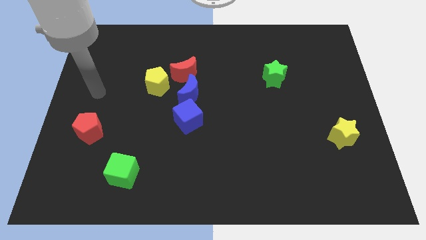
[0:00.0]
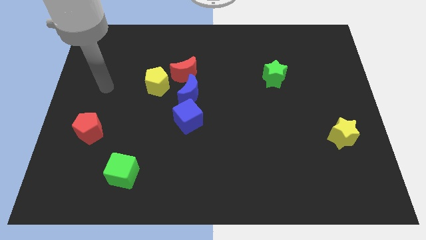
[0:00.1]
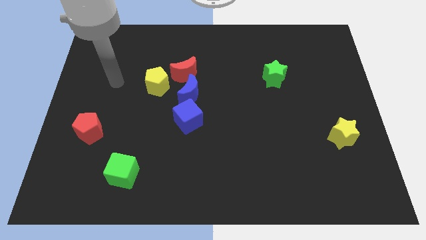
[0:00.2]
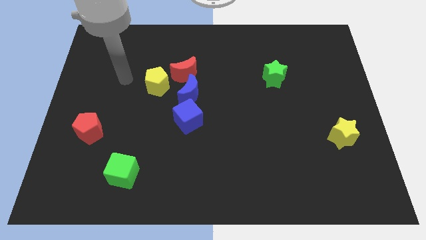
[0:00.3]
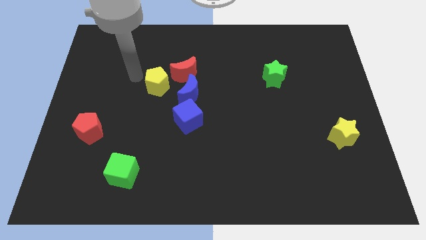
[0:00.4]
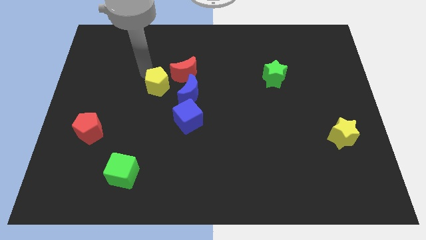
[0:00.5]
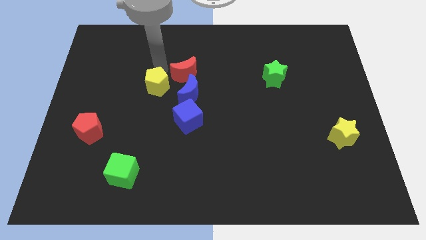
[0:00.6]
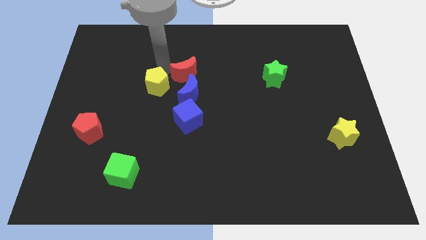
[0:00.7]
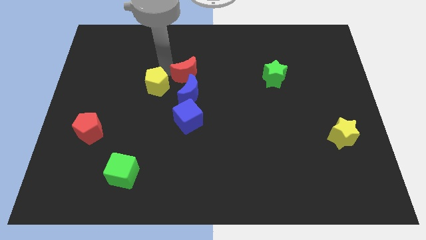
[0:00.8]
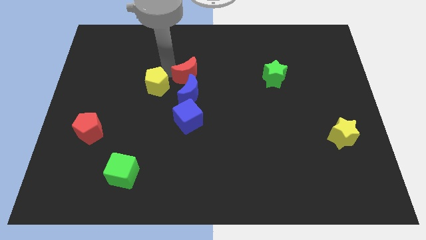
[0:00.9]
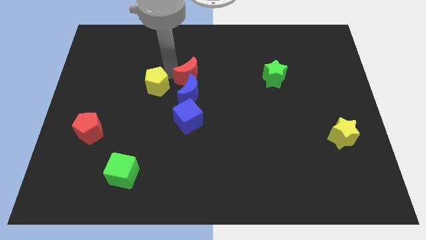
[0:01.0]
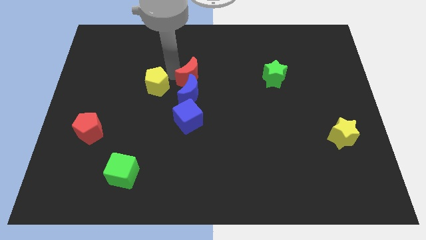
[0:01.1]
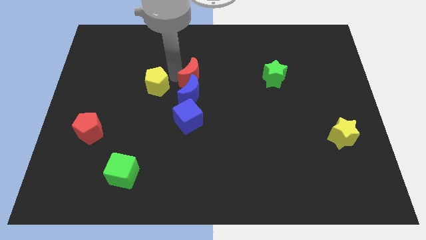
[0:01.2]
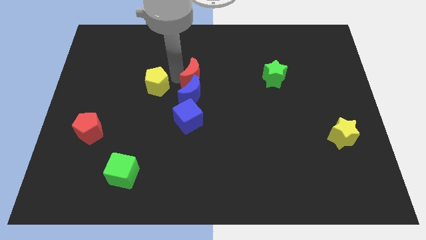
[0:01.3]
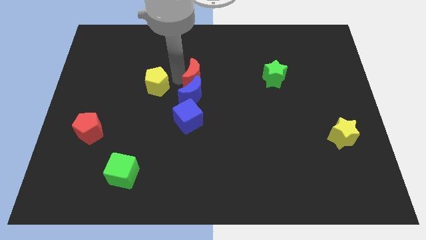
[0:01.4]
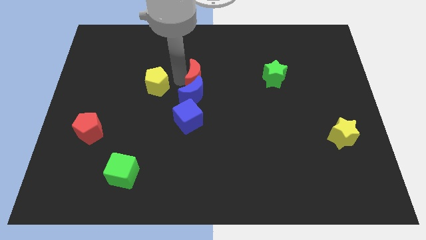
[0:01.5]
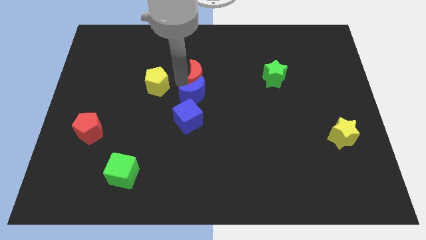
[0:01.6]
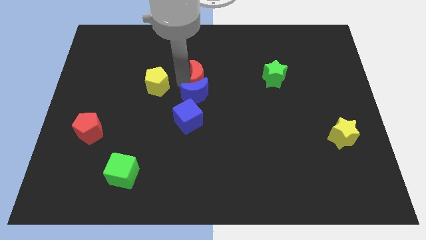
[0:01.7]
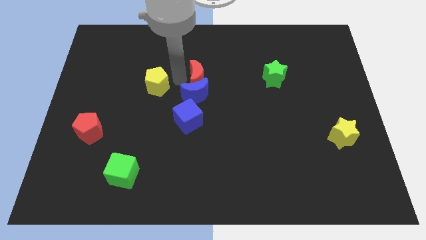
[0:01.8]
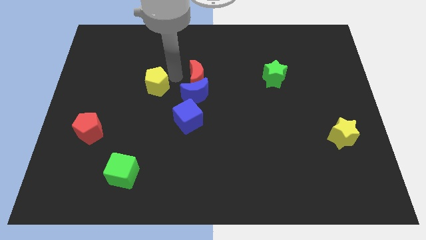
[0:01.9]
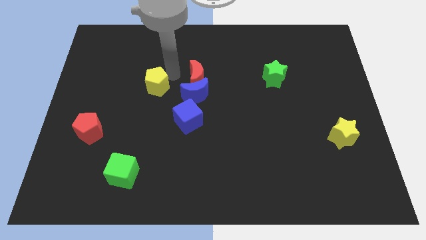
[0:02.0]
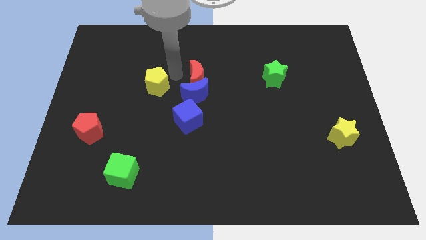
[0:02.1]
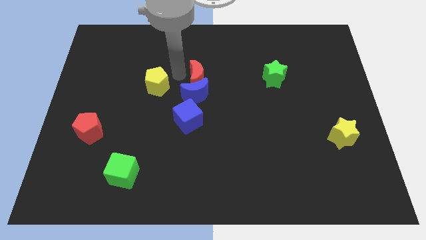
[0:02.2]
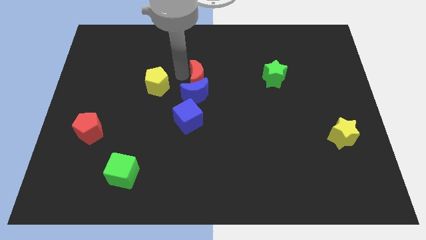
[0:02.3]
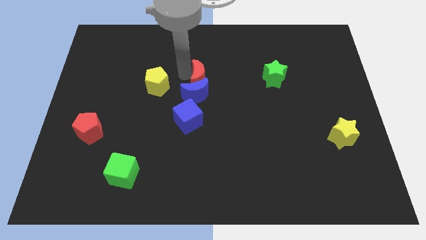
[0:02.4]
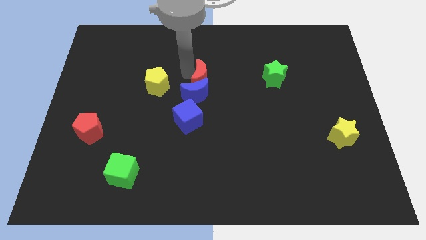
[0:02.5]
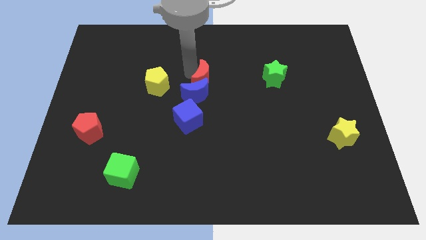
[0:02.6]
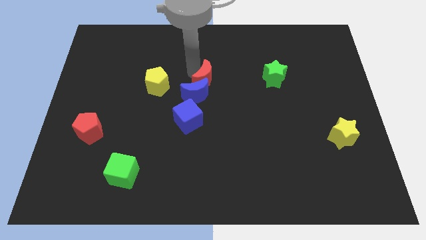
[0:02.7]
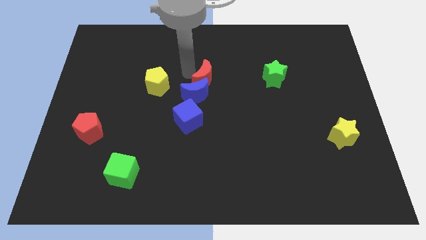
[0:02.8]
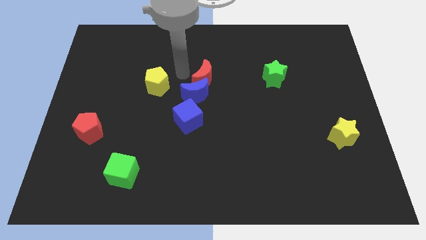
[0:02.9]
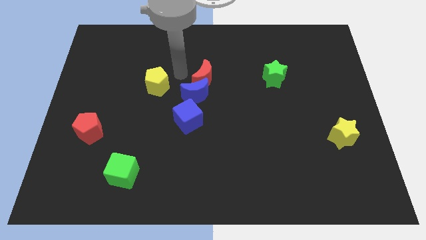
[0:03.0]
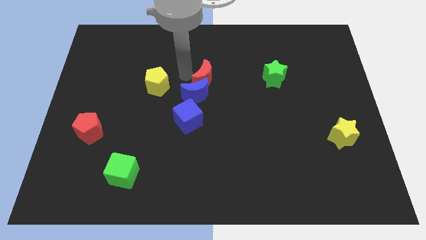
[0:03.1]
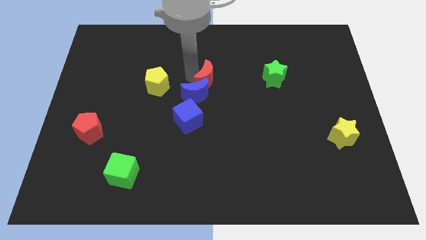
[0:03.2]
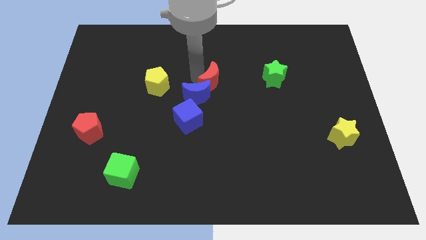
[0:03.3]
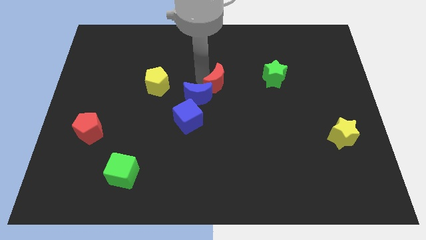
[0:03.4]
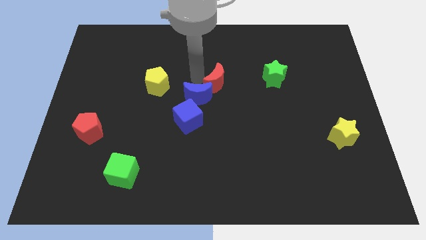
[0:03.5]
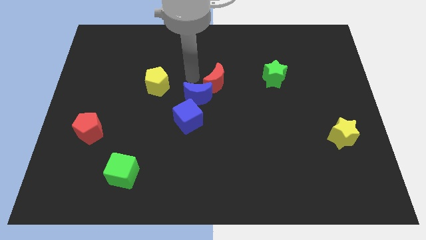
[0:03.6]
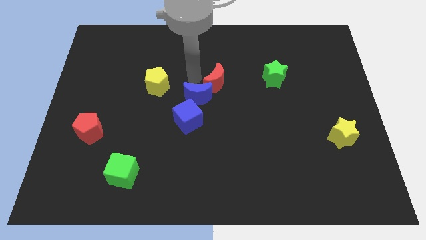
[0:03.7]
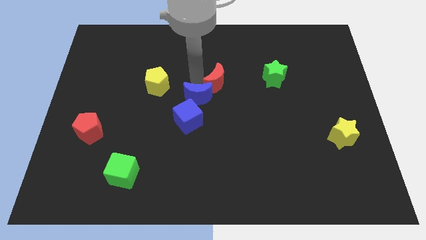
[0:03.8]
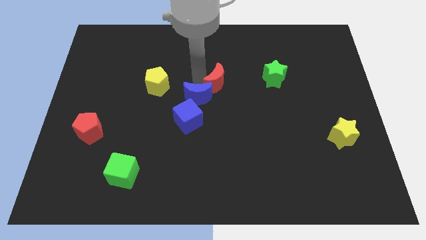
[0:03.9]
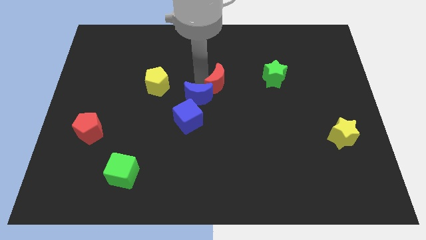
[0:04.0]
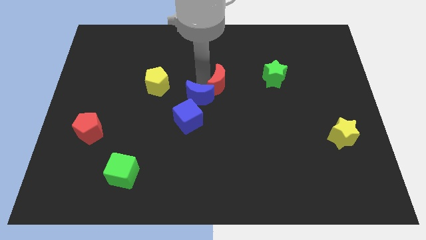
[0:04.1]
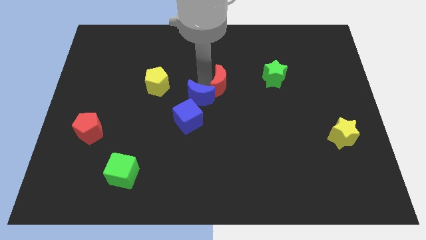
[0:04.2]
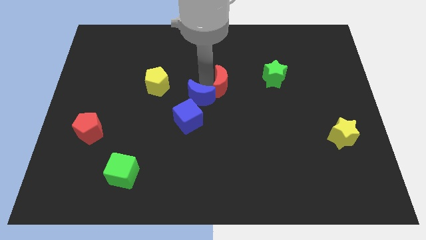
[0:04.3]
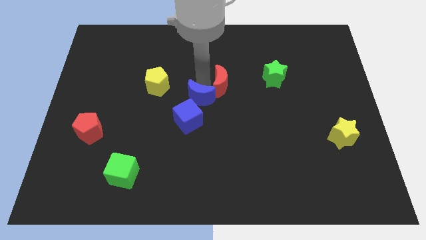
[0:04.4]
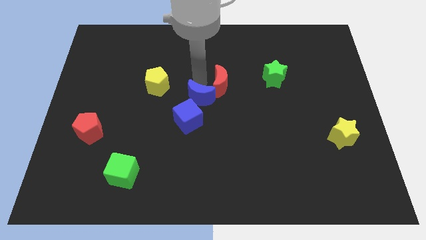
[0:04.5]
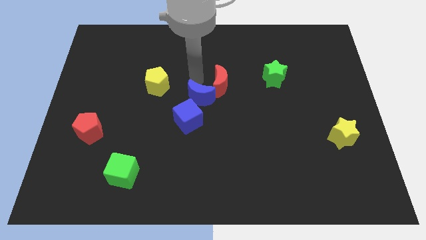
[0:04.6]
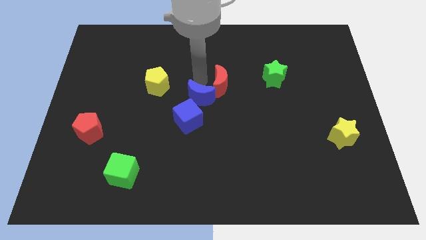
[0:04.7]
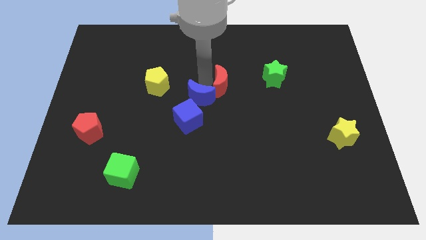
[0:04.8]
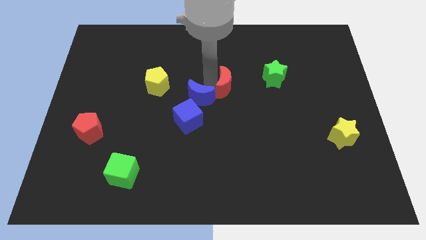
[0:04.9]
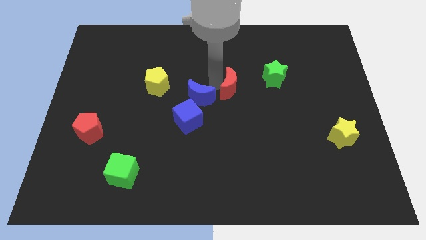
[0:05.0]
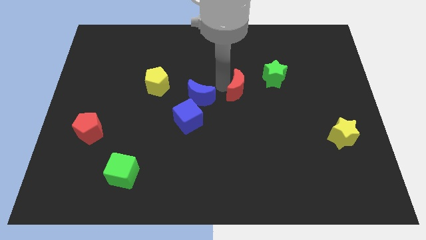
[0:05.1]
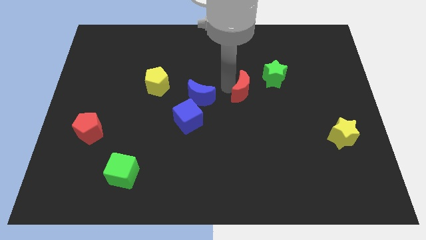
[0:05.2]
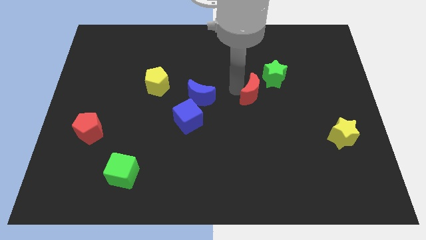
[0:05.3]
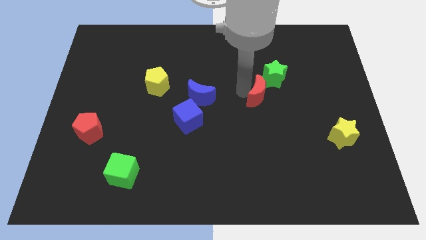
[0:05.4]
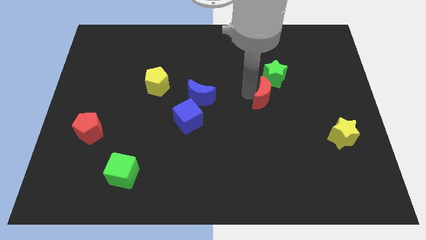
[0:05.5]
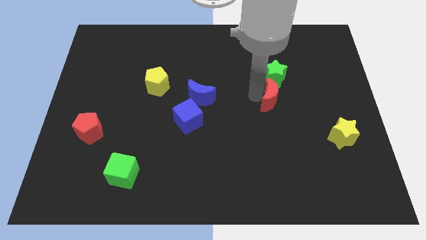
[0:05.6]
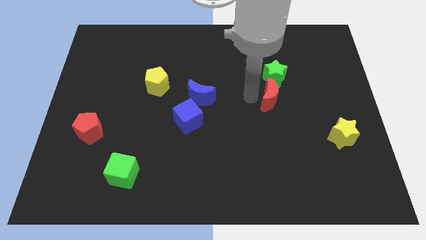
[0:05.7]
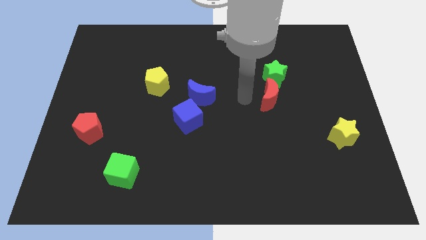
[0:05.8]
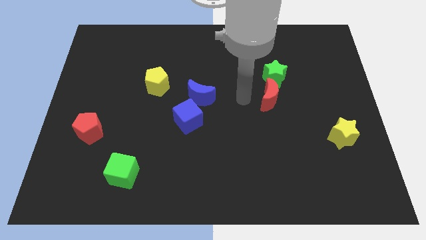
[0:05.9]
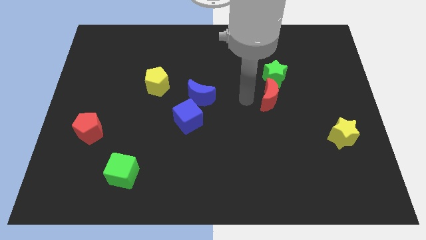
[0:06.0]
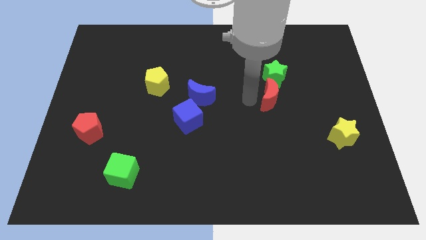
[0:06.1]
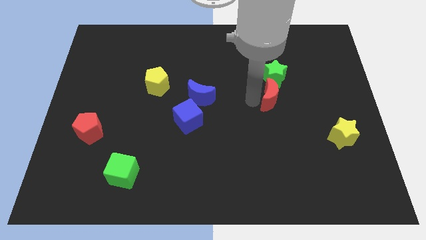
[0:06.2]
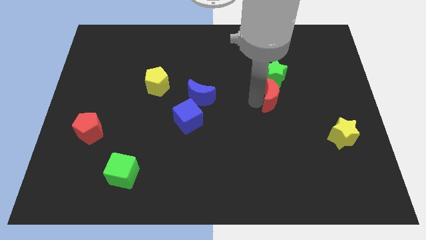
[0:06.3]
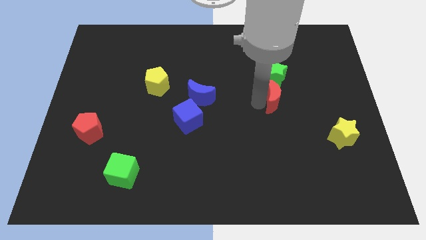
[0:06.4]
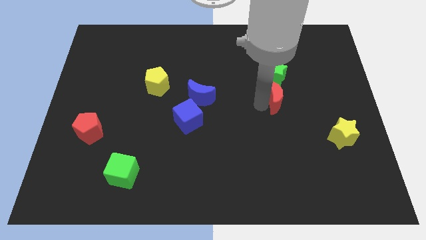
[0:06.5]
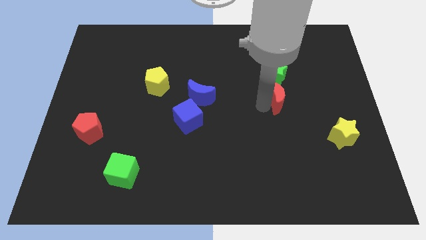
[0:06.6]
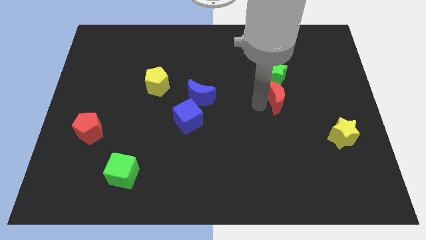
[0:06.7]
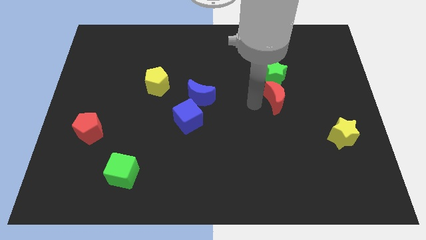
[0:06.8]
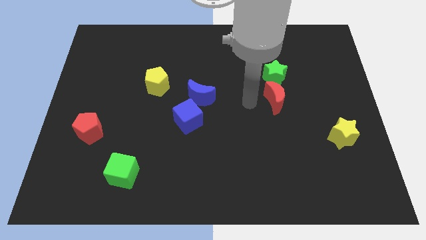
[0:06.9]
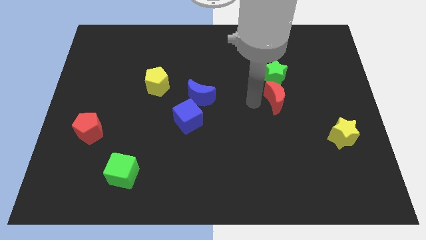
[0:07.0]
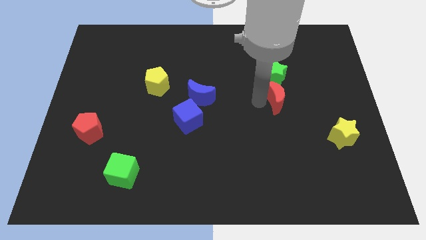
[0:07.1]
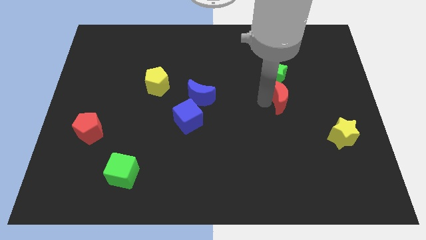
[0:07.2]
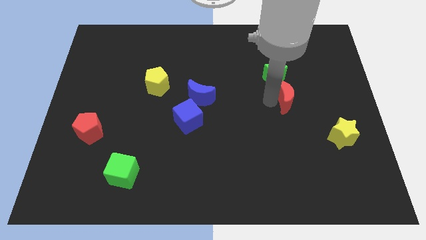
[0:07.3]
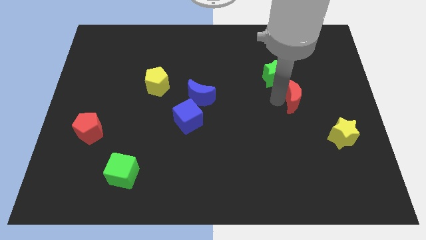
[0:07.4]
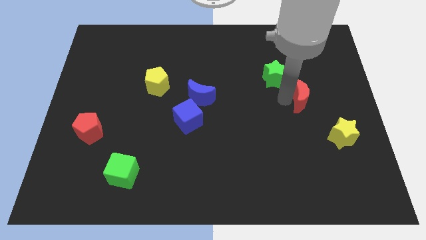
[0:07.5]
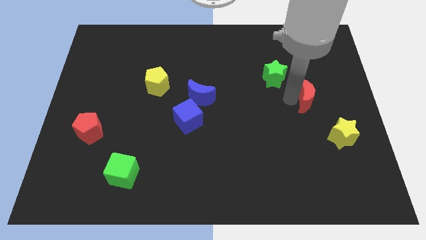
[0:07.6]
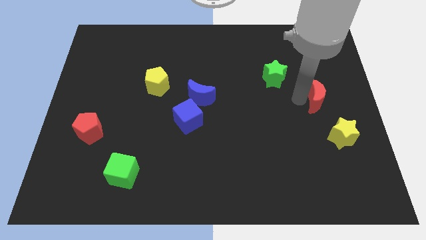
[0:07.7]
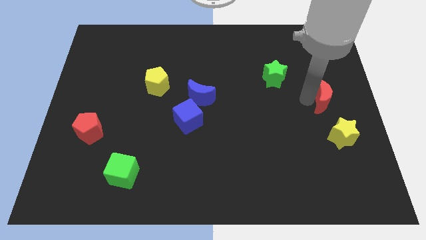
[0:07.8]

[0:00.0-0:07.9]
put the red moon to the right side
